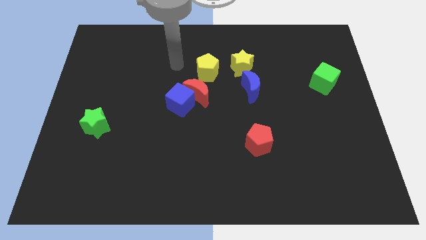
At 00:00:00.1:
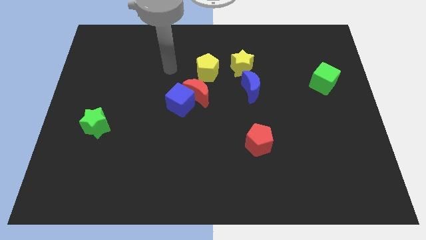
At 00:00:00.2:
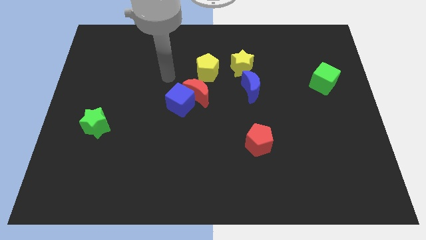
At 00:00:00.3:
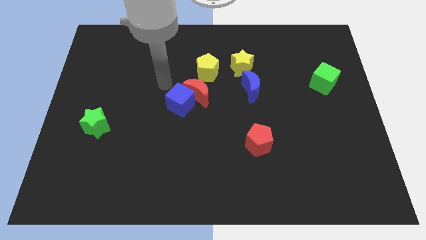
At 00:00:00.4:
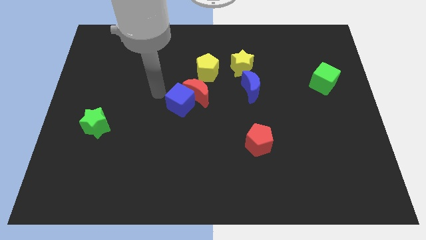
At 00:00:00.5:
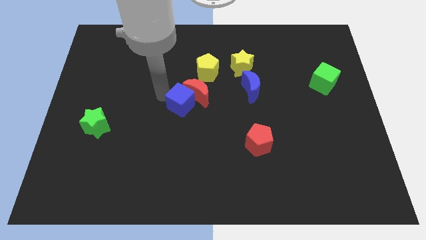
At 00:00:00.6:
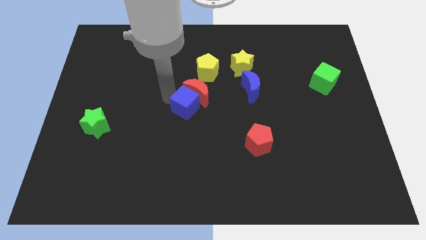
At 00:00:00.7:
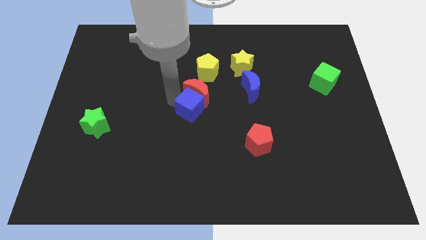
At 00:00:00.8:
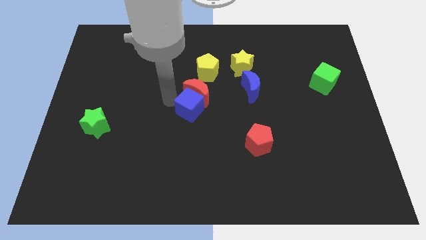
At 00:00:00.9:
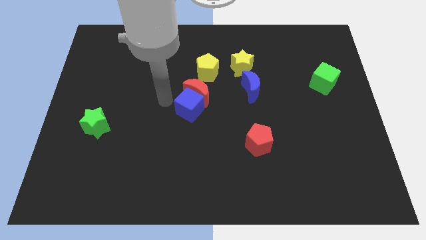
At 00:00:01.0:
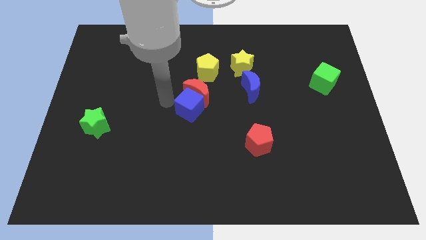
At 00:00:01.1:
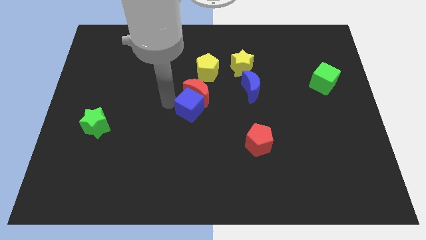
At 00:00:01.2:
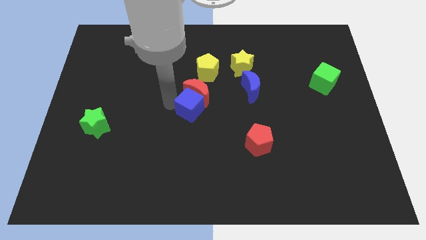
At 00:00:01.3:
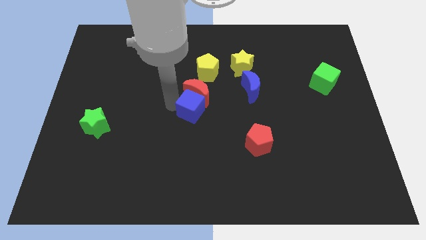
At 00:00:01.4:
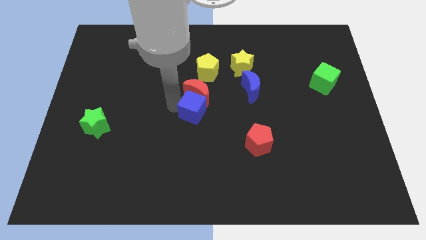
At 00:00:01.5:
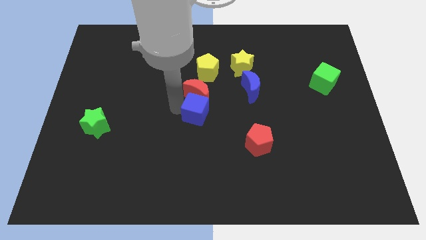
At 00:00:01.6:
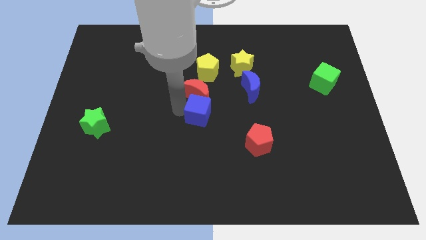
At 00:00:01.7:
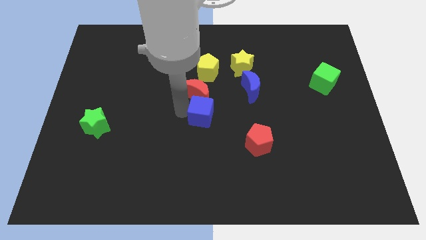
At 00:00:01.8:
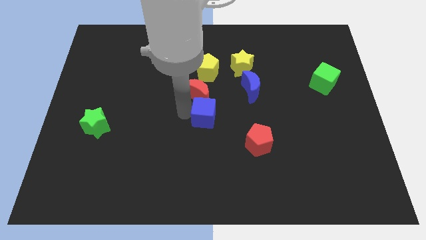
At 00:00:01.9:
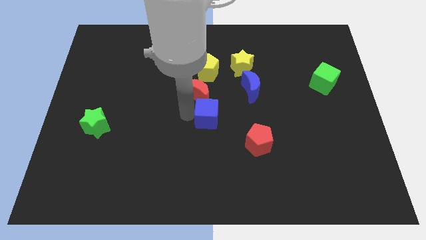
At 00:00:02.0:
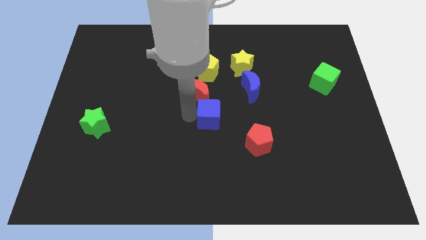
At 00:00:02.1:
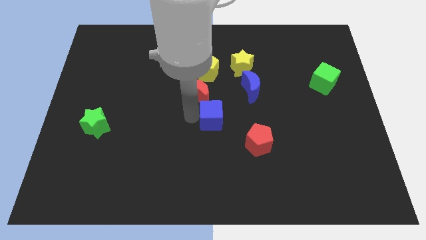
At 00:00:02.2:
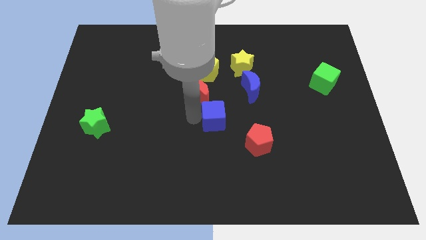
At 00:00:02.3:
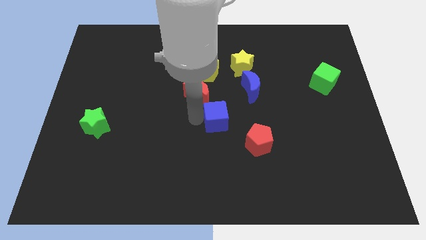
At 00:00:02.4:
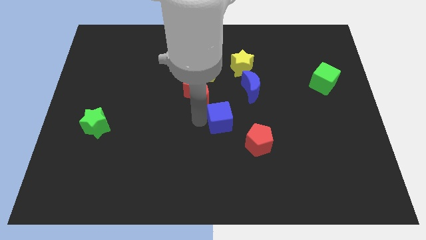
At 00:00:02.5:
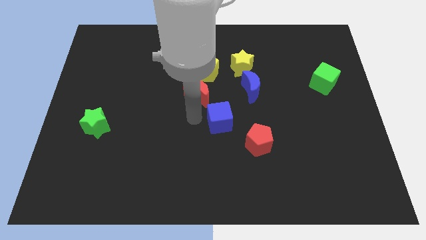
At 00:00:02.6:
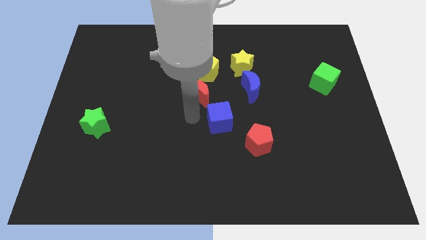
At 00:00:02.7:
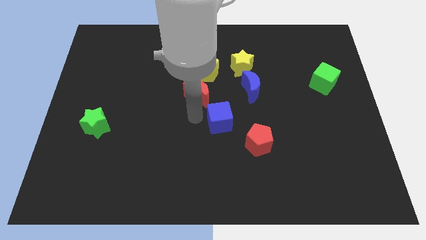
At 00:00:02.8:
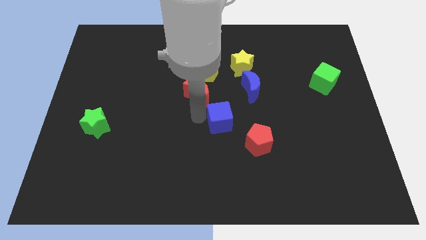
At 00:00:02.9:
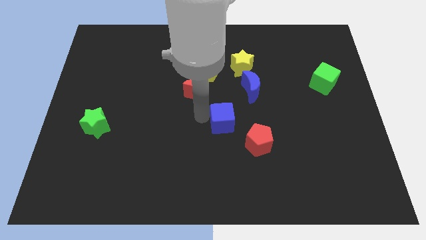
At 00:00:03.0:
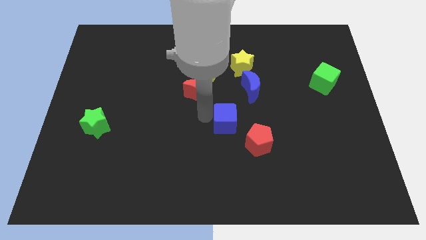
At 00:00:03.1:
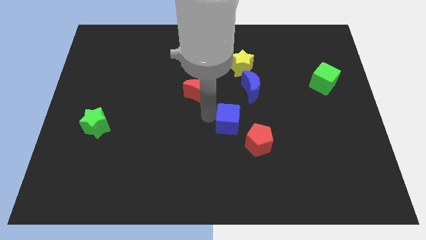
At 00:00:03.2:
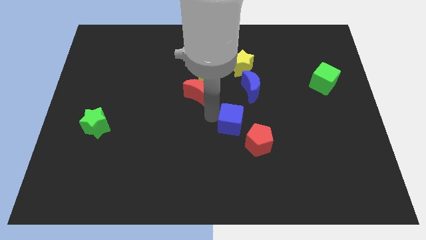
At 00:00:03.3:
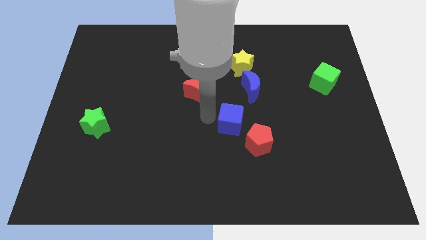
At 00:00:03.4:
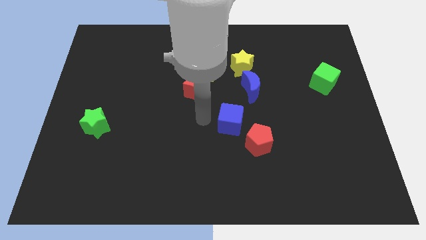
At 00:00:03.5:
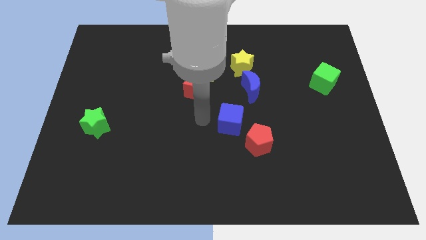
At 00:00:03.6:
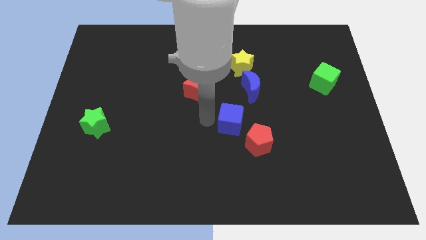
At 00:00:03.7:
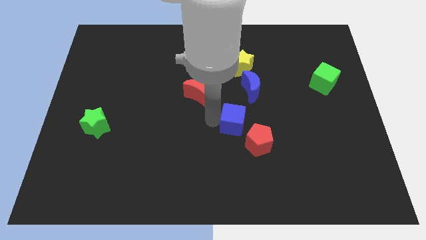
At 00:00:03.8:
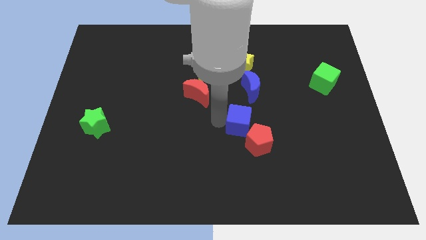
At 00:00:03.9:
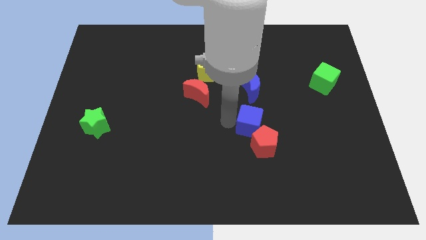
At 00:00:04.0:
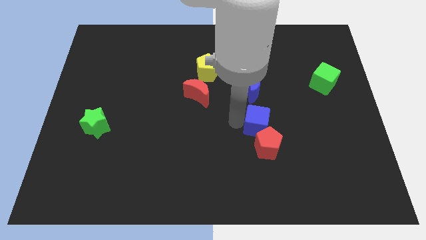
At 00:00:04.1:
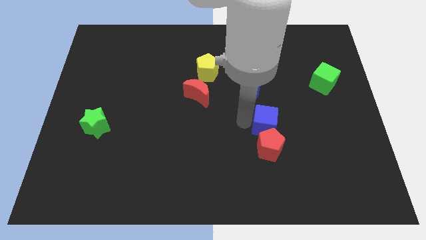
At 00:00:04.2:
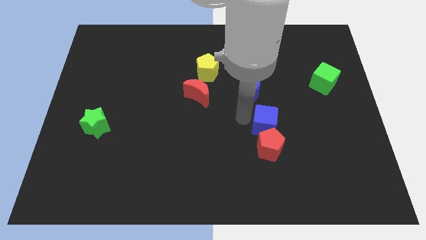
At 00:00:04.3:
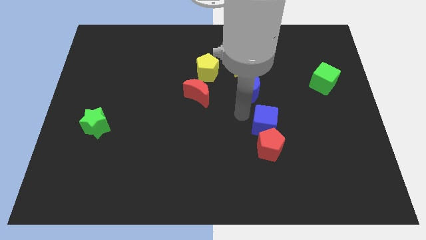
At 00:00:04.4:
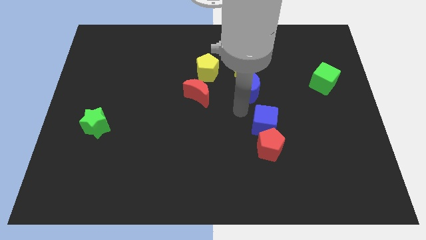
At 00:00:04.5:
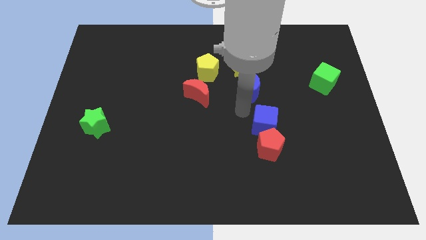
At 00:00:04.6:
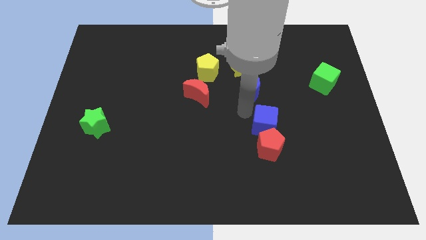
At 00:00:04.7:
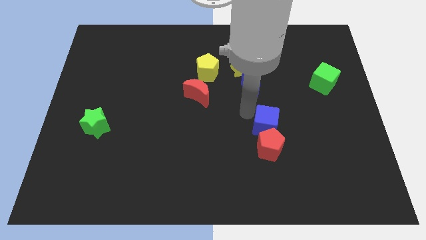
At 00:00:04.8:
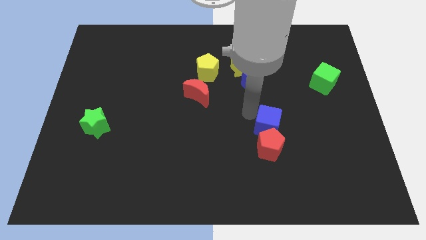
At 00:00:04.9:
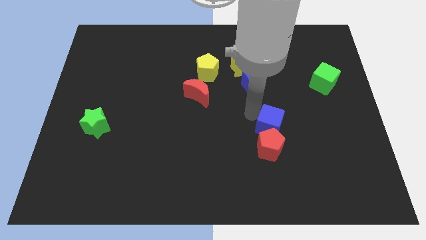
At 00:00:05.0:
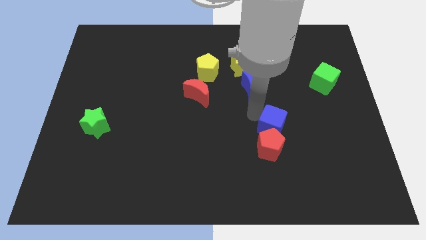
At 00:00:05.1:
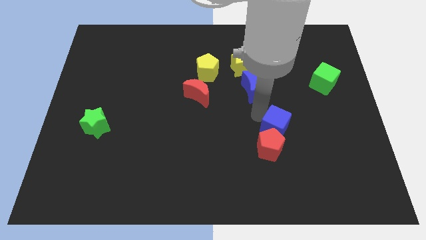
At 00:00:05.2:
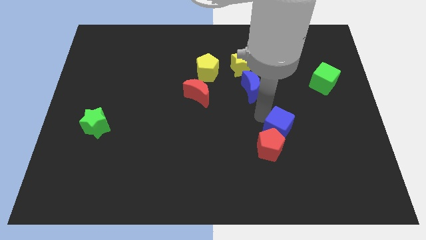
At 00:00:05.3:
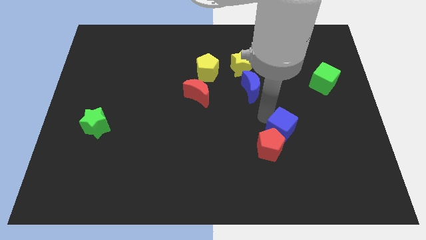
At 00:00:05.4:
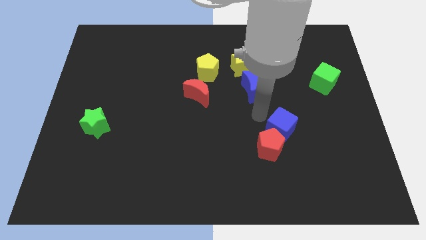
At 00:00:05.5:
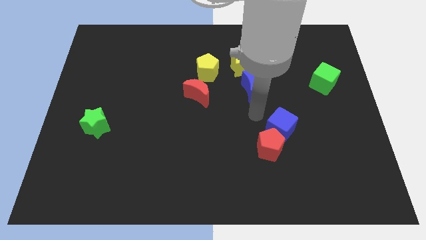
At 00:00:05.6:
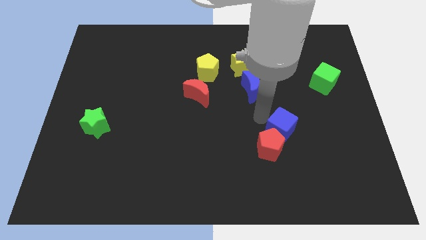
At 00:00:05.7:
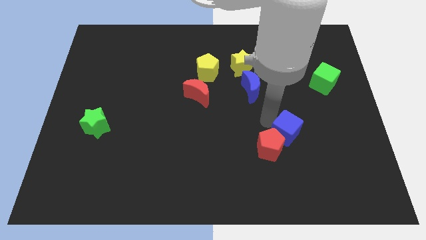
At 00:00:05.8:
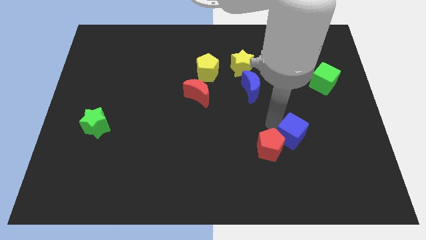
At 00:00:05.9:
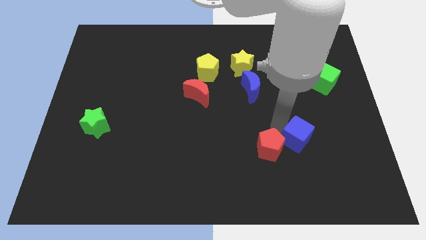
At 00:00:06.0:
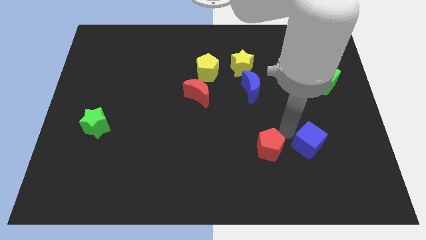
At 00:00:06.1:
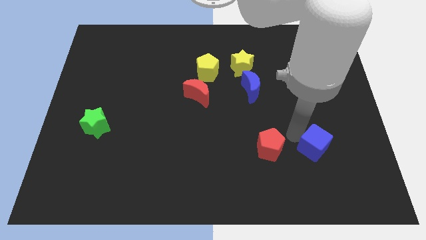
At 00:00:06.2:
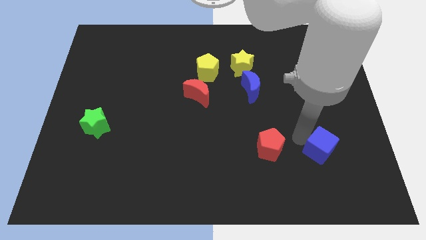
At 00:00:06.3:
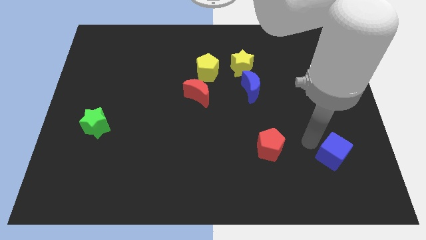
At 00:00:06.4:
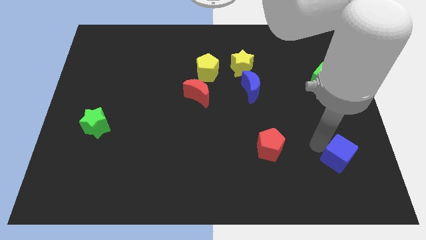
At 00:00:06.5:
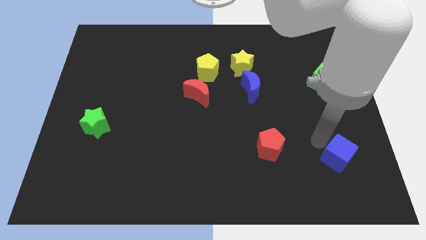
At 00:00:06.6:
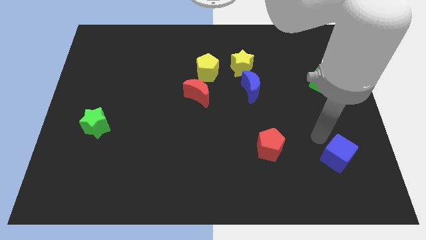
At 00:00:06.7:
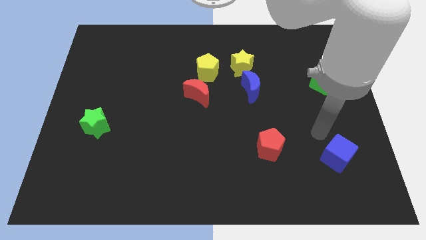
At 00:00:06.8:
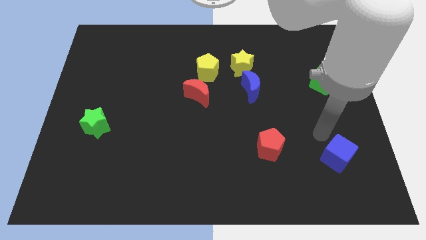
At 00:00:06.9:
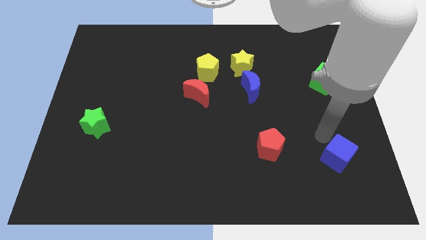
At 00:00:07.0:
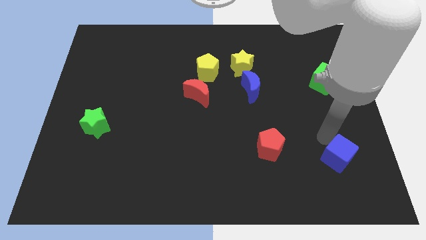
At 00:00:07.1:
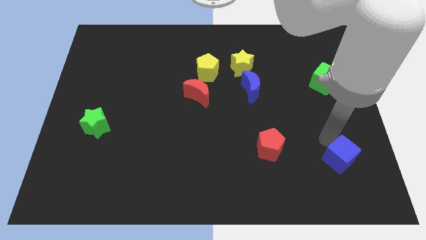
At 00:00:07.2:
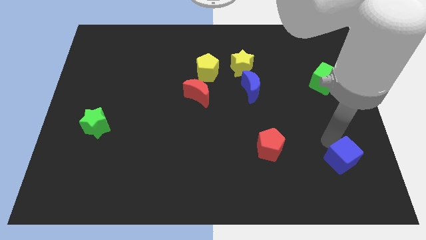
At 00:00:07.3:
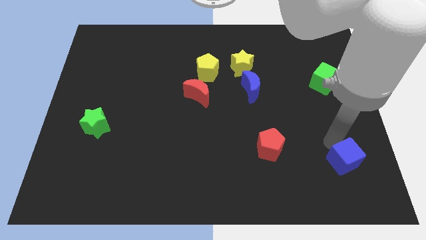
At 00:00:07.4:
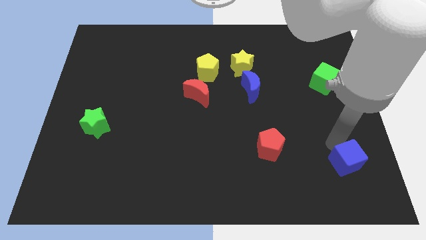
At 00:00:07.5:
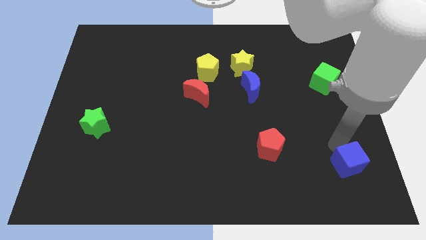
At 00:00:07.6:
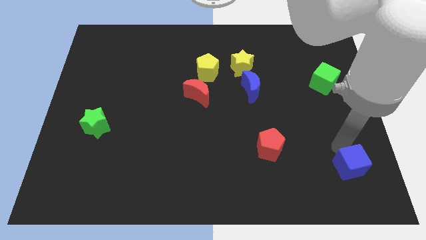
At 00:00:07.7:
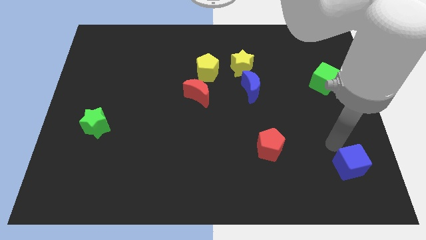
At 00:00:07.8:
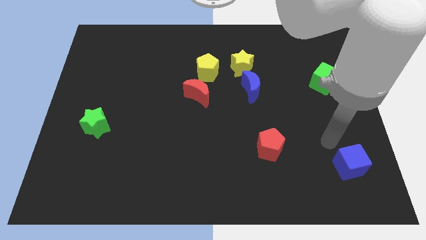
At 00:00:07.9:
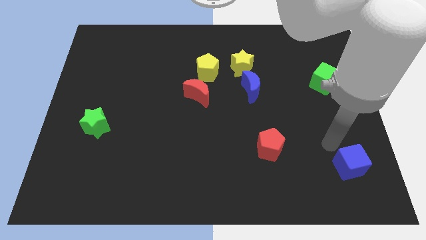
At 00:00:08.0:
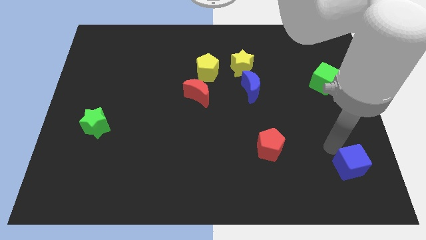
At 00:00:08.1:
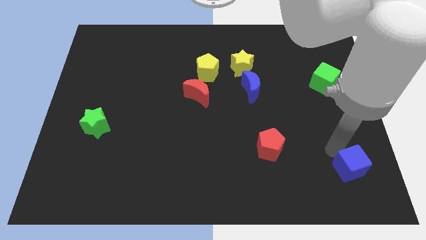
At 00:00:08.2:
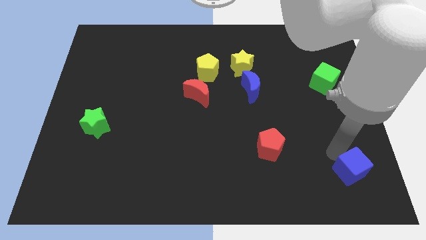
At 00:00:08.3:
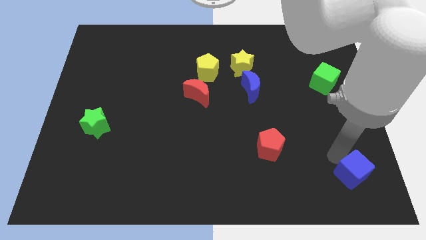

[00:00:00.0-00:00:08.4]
slide the blue cube to the bottom right corner
